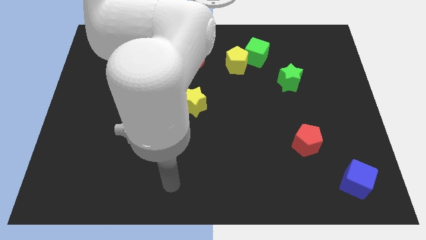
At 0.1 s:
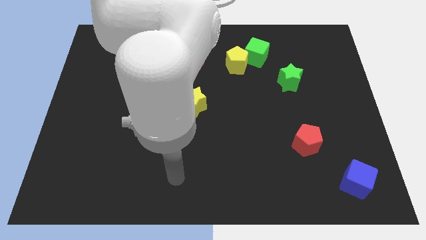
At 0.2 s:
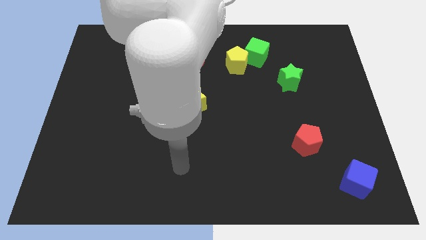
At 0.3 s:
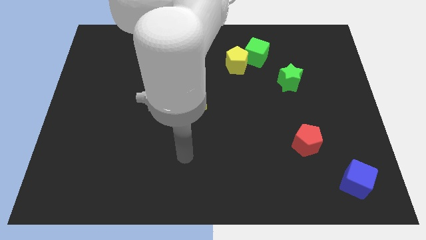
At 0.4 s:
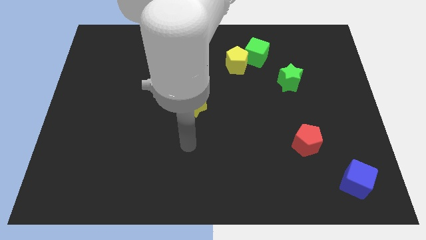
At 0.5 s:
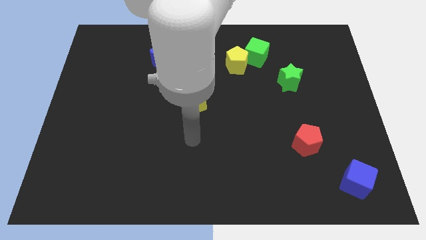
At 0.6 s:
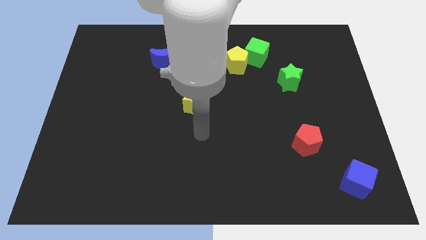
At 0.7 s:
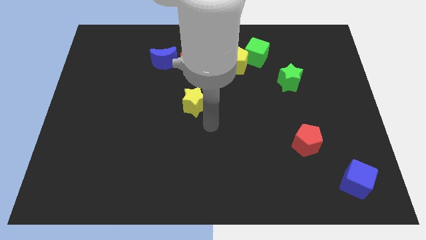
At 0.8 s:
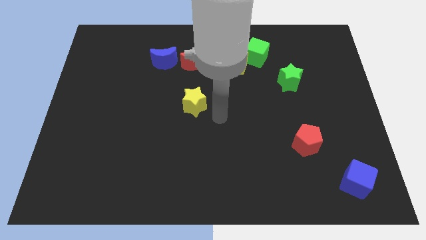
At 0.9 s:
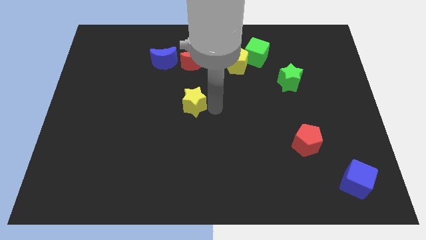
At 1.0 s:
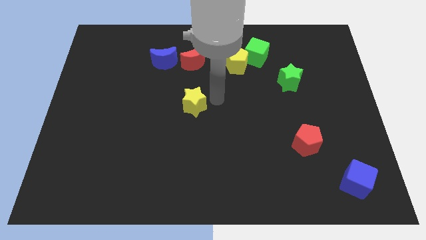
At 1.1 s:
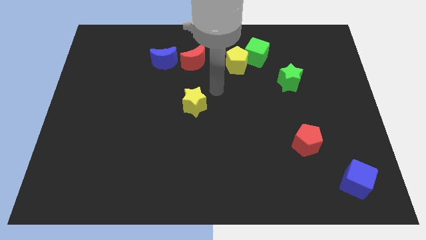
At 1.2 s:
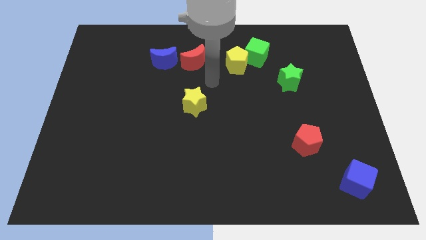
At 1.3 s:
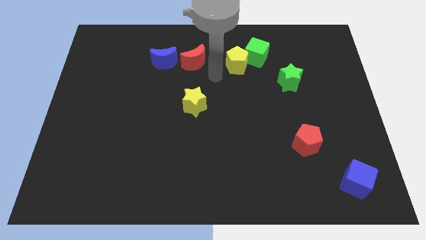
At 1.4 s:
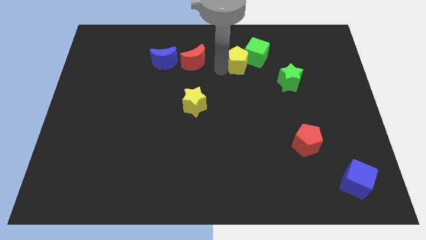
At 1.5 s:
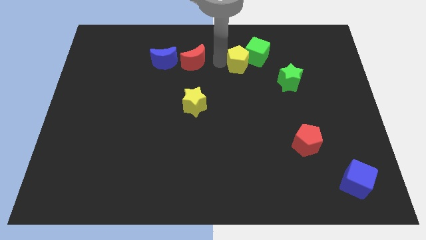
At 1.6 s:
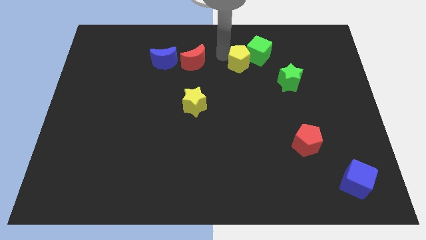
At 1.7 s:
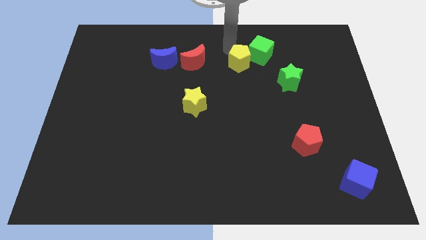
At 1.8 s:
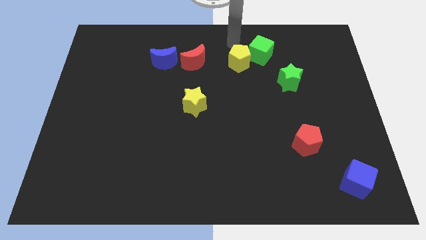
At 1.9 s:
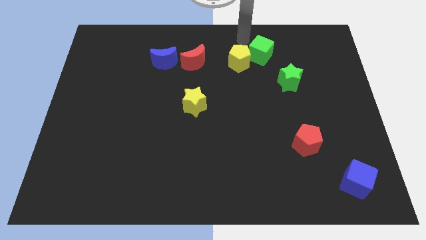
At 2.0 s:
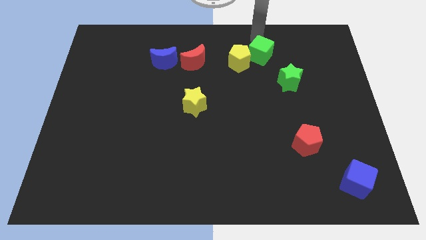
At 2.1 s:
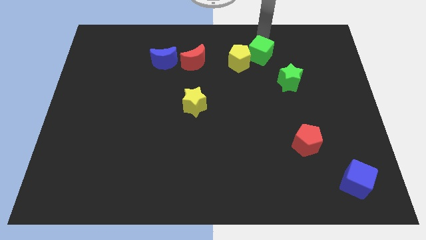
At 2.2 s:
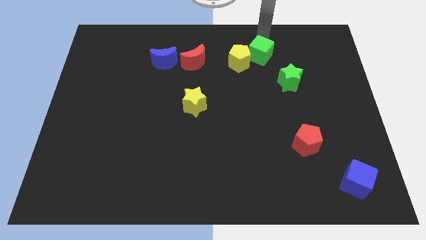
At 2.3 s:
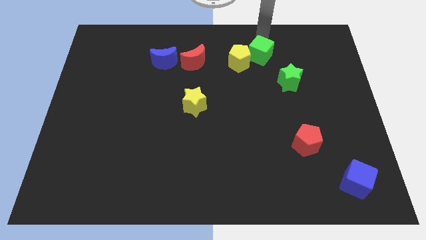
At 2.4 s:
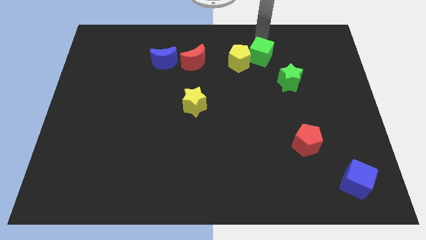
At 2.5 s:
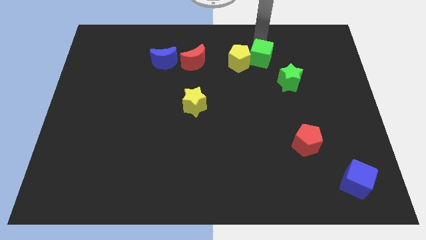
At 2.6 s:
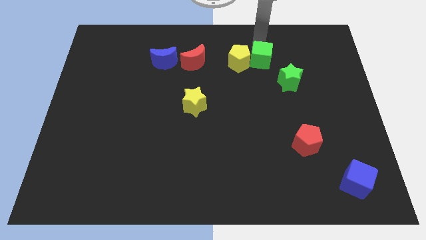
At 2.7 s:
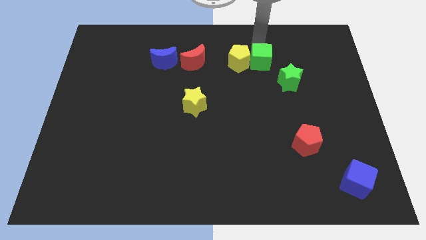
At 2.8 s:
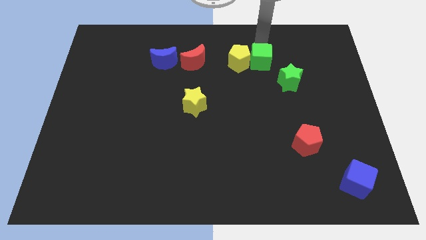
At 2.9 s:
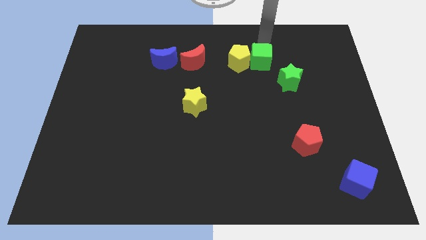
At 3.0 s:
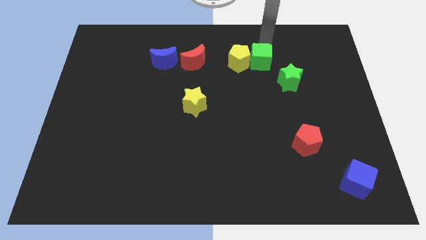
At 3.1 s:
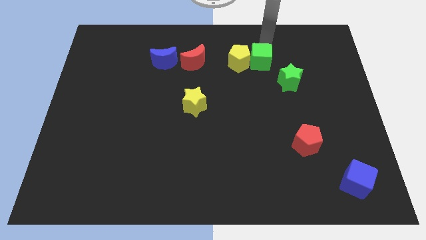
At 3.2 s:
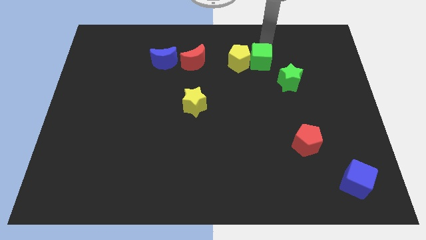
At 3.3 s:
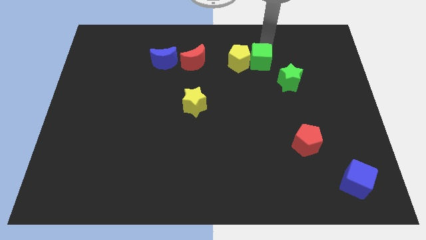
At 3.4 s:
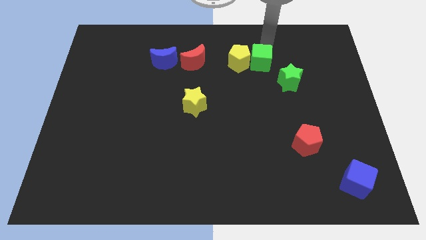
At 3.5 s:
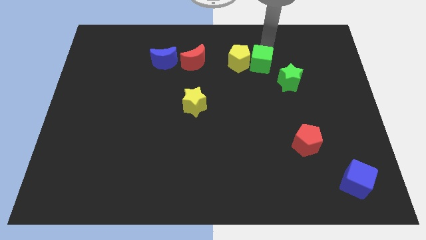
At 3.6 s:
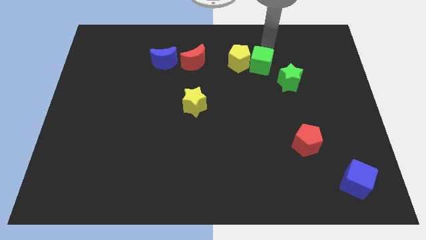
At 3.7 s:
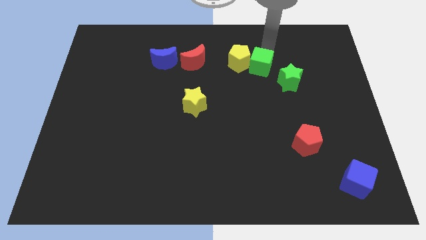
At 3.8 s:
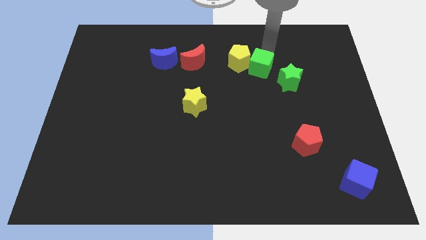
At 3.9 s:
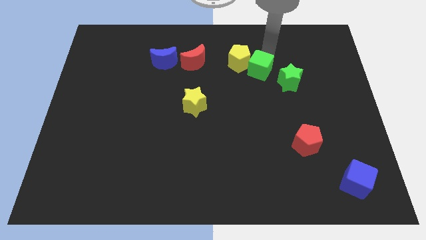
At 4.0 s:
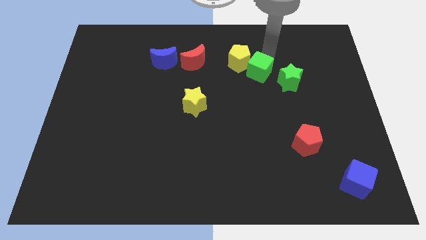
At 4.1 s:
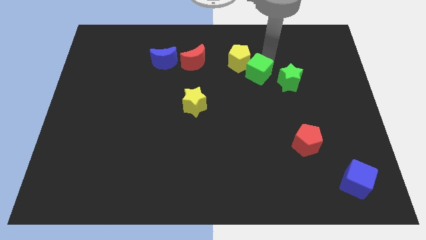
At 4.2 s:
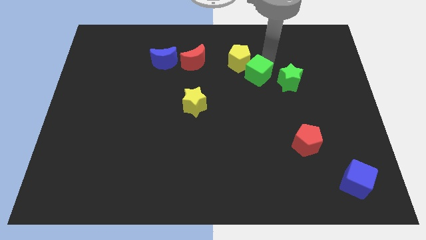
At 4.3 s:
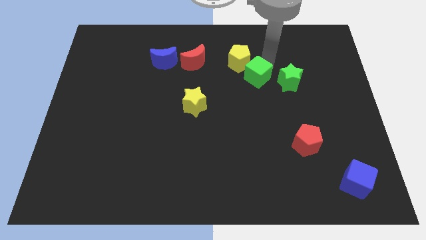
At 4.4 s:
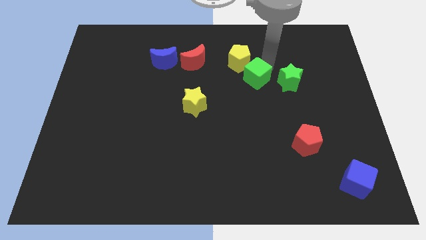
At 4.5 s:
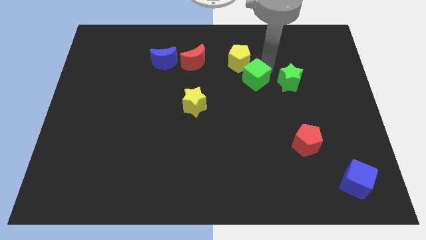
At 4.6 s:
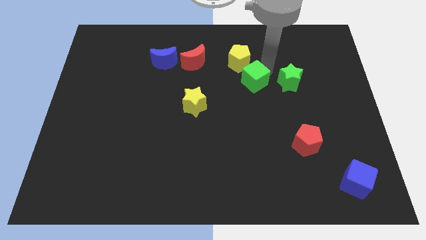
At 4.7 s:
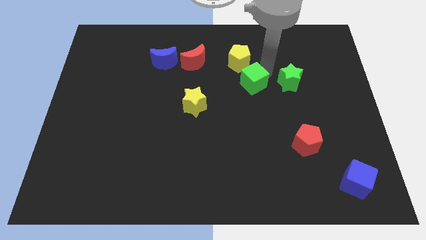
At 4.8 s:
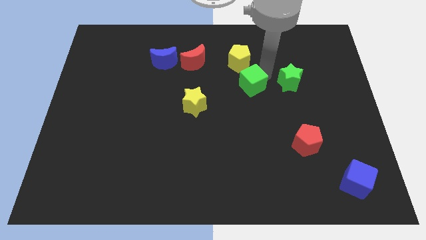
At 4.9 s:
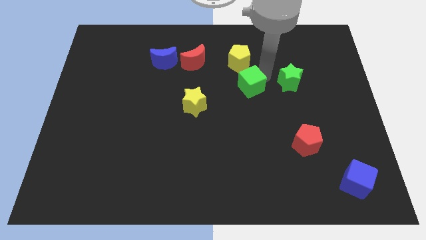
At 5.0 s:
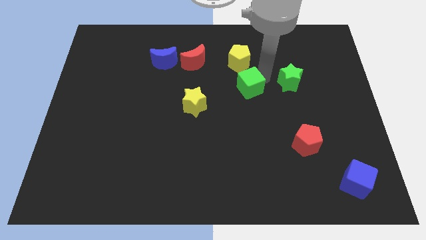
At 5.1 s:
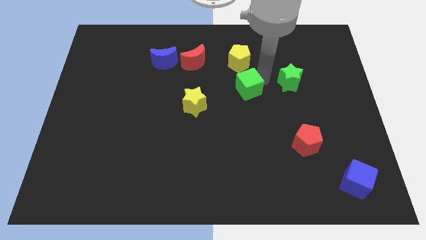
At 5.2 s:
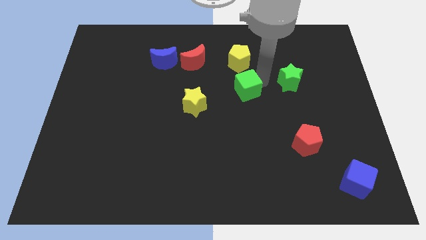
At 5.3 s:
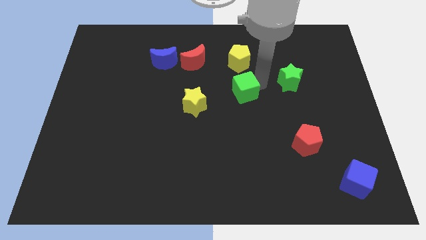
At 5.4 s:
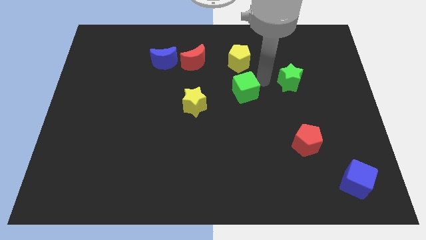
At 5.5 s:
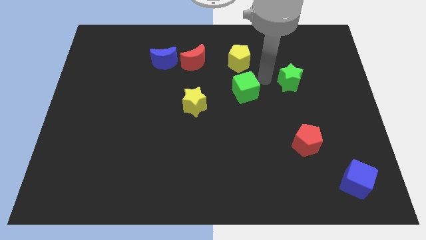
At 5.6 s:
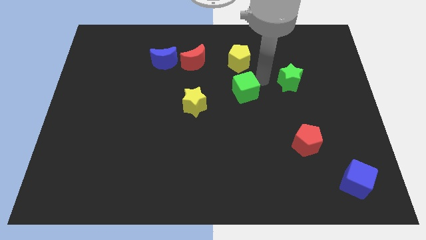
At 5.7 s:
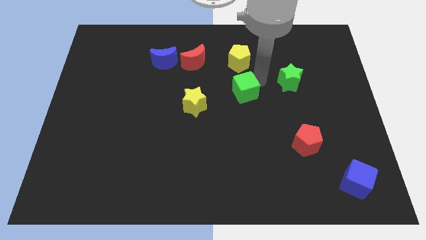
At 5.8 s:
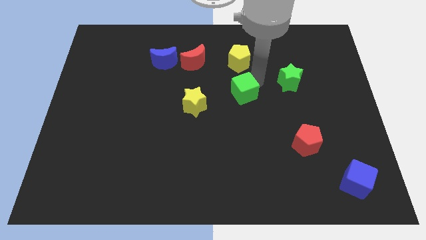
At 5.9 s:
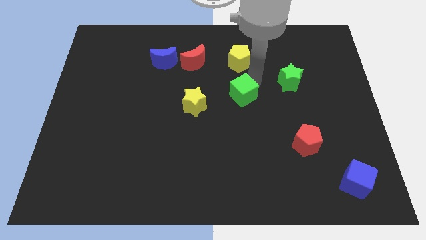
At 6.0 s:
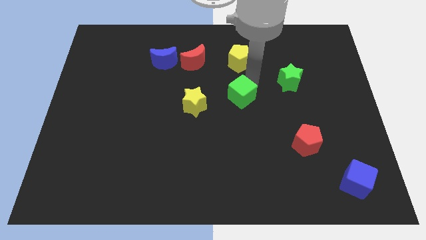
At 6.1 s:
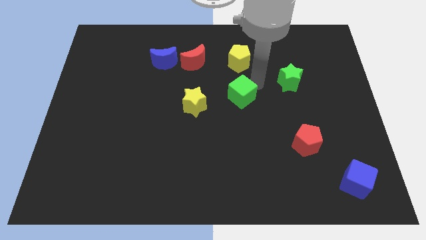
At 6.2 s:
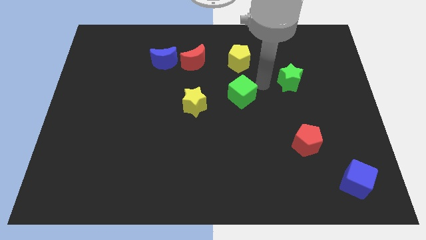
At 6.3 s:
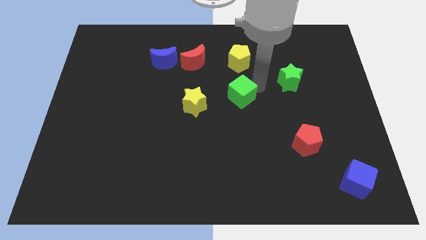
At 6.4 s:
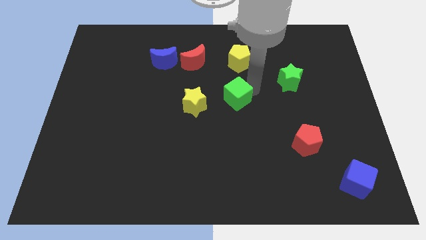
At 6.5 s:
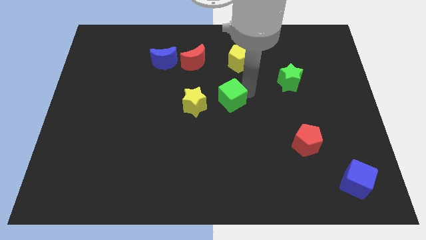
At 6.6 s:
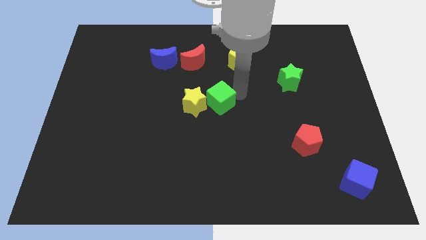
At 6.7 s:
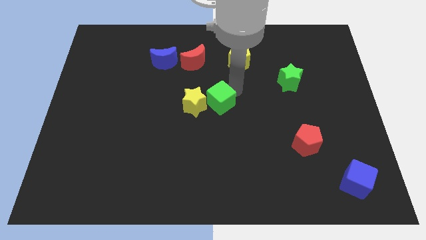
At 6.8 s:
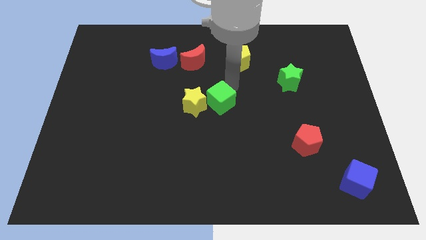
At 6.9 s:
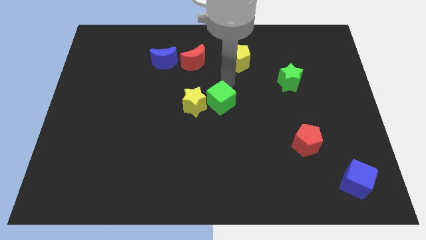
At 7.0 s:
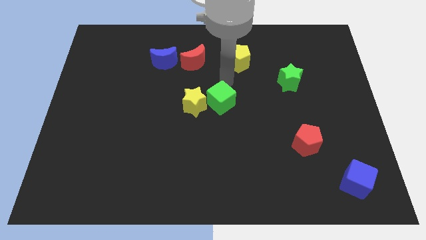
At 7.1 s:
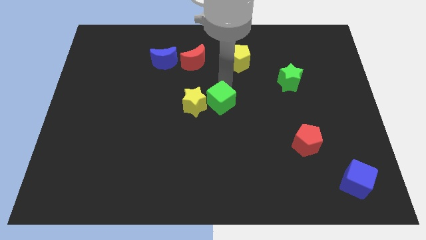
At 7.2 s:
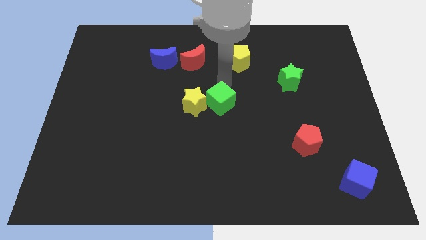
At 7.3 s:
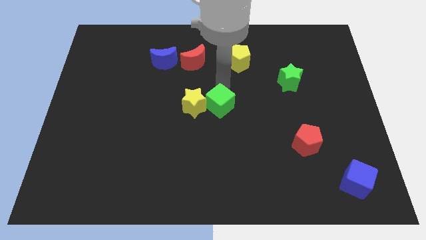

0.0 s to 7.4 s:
slide the green cube to the bottom right of the yellow star
